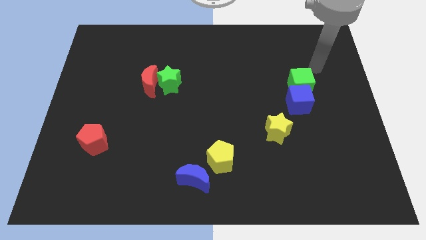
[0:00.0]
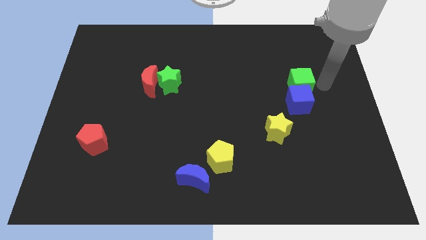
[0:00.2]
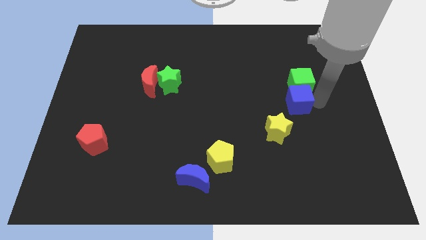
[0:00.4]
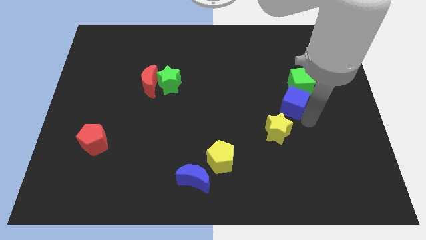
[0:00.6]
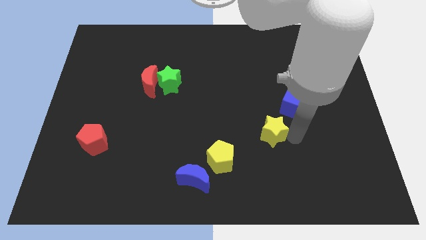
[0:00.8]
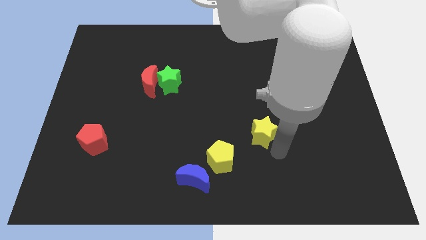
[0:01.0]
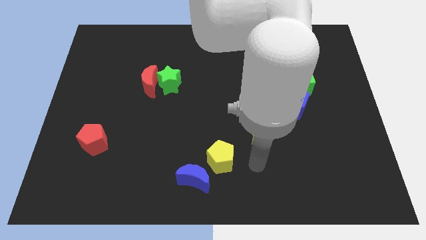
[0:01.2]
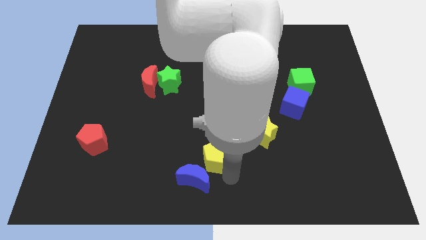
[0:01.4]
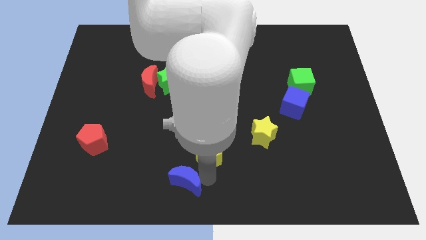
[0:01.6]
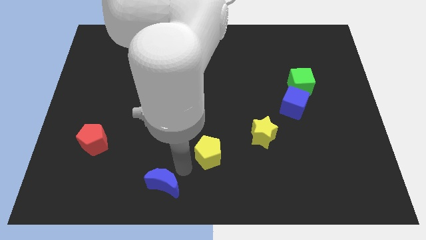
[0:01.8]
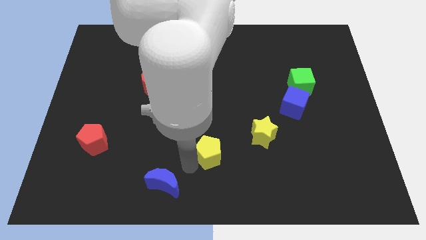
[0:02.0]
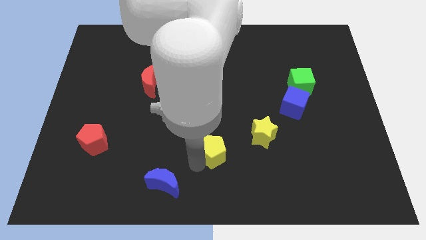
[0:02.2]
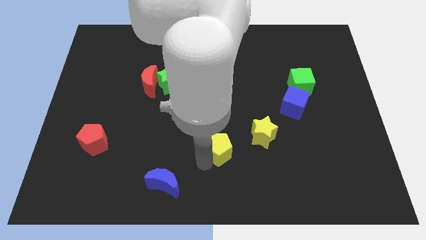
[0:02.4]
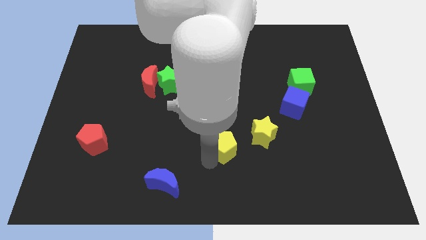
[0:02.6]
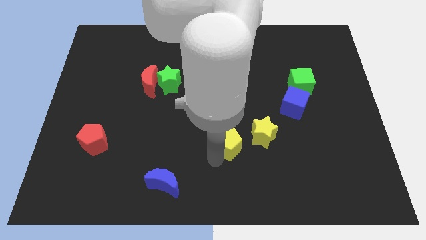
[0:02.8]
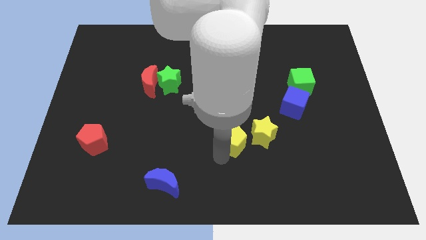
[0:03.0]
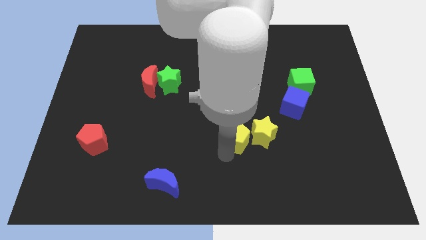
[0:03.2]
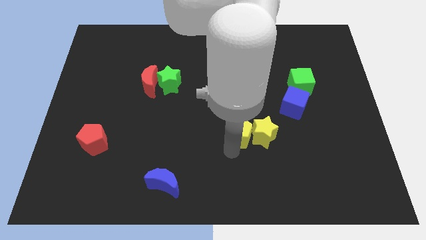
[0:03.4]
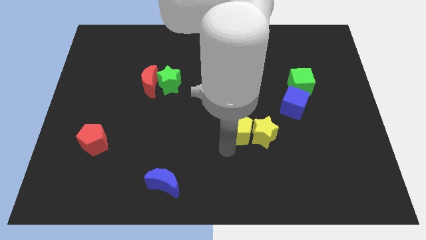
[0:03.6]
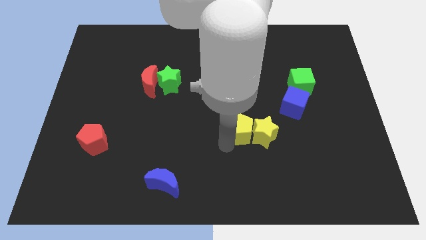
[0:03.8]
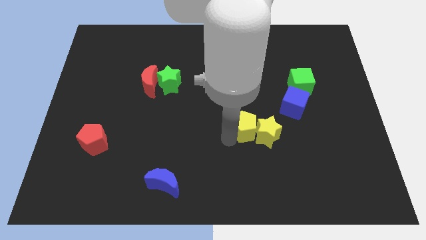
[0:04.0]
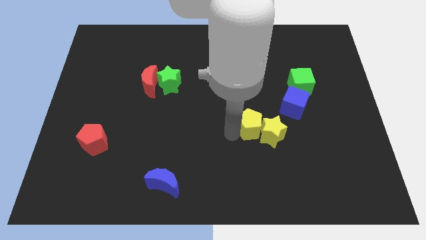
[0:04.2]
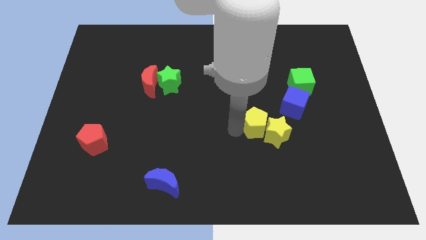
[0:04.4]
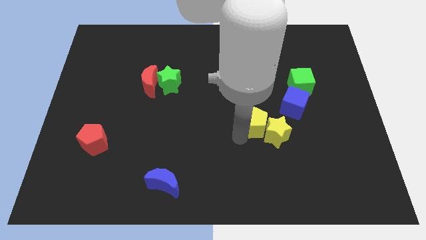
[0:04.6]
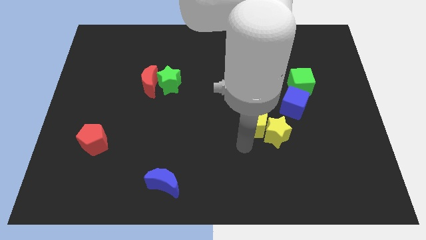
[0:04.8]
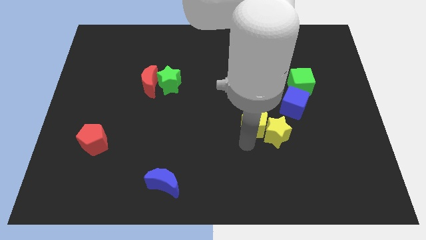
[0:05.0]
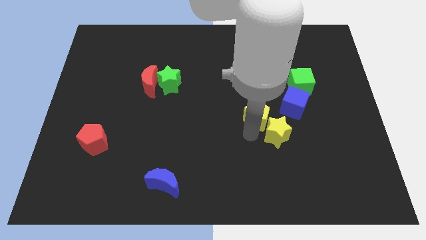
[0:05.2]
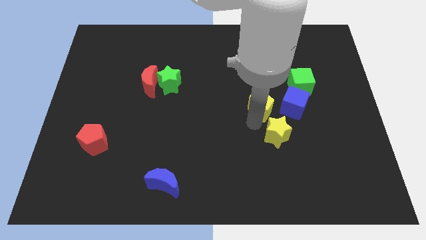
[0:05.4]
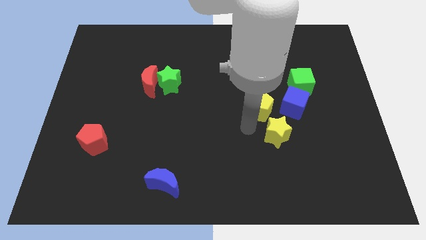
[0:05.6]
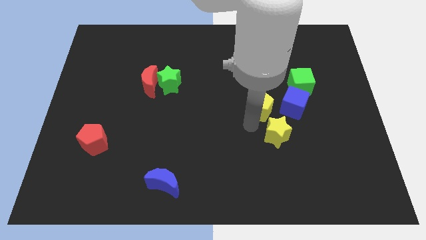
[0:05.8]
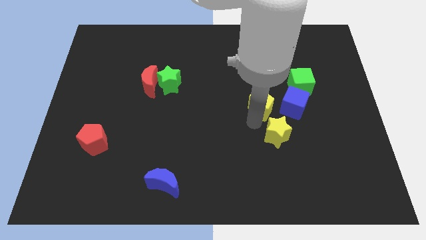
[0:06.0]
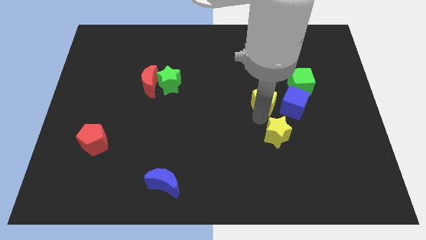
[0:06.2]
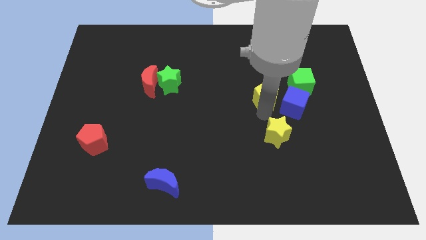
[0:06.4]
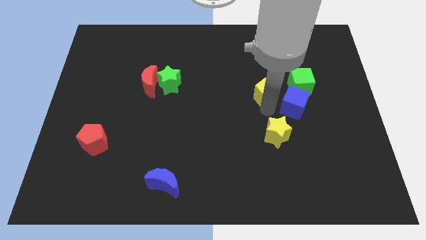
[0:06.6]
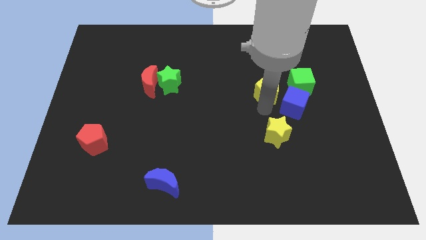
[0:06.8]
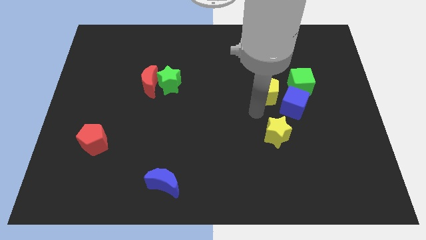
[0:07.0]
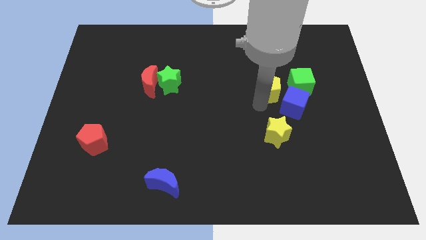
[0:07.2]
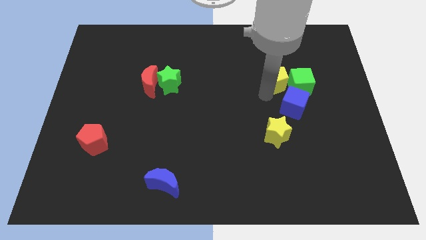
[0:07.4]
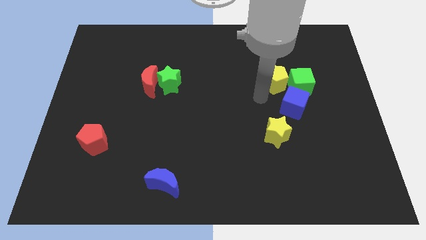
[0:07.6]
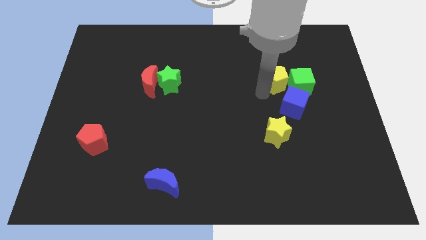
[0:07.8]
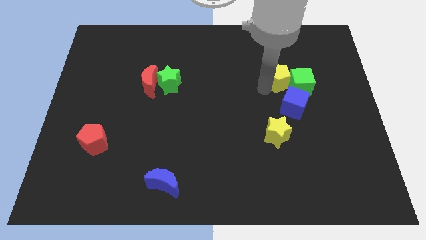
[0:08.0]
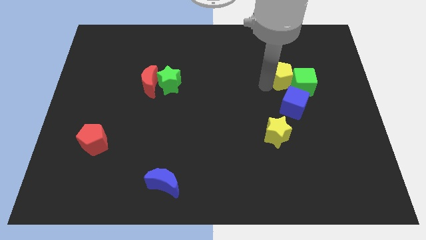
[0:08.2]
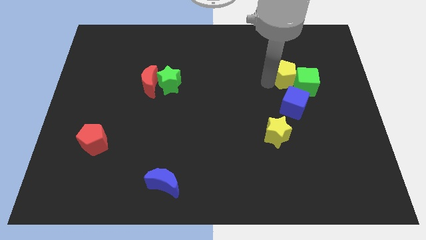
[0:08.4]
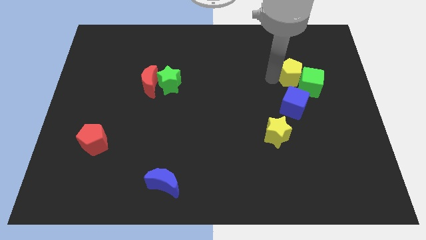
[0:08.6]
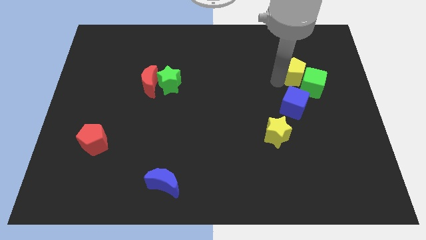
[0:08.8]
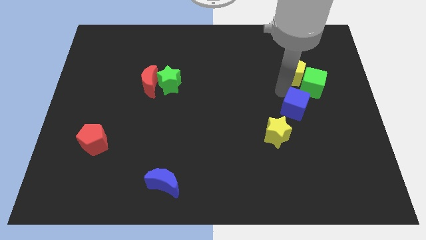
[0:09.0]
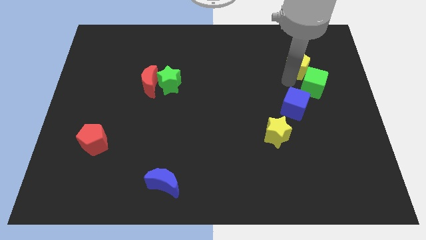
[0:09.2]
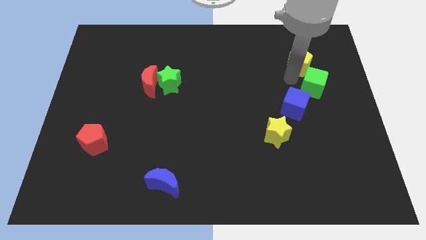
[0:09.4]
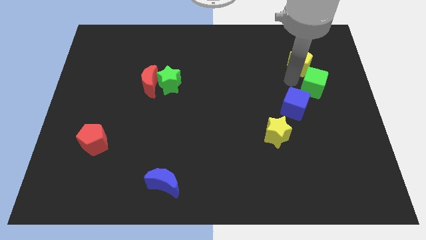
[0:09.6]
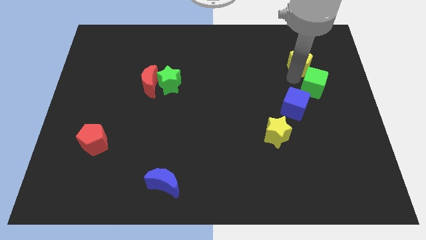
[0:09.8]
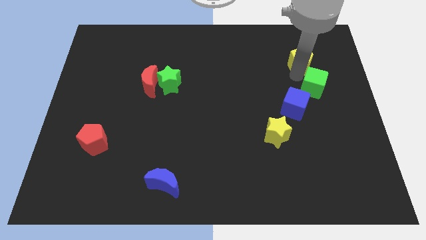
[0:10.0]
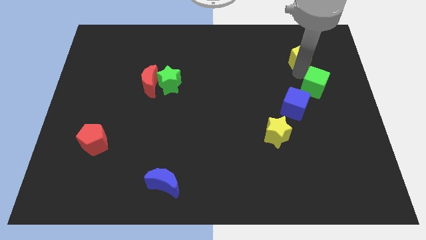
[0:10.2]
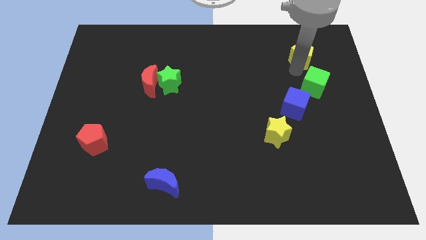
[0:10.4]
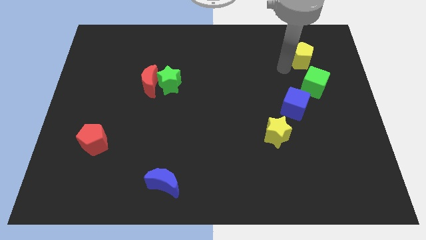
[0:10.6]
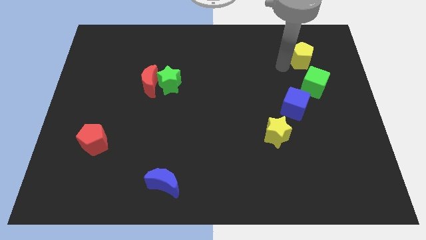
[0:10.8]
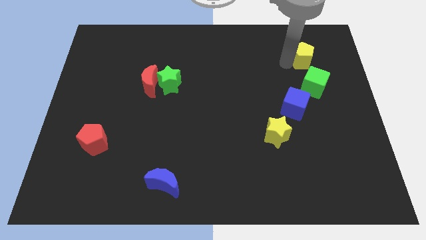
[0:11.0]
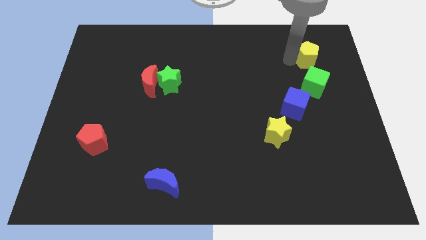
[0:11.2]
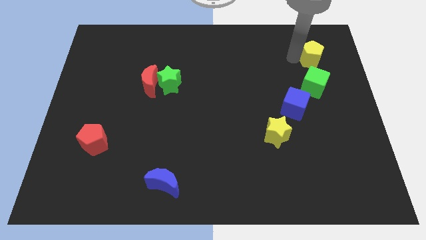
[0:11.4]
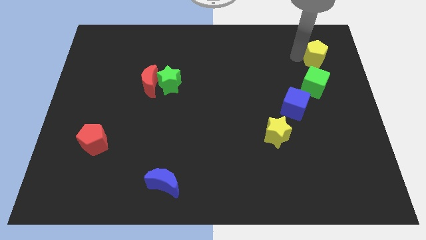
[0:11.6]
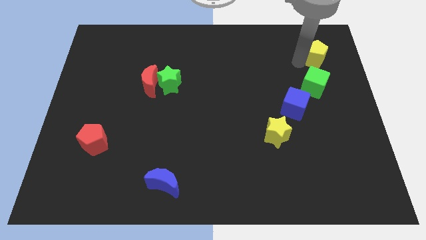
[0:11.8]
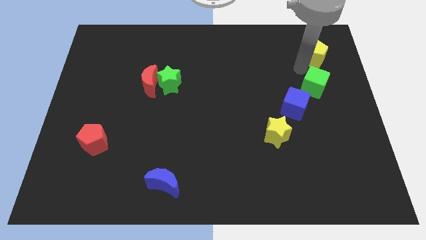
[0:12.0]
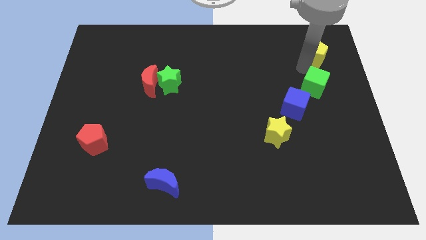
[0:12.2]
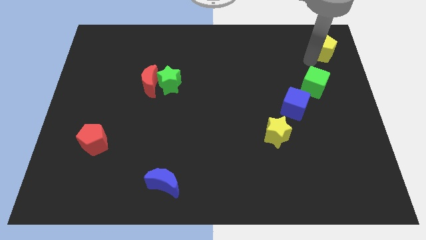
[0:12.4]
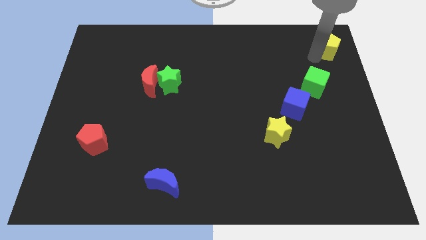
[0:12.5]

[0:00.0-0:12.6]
put the yellow pentagon to the top right of the board
